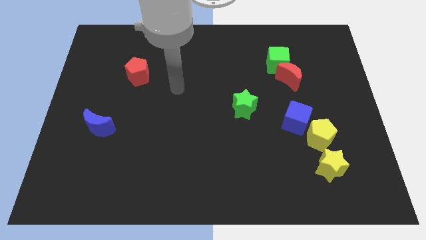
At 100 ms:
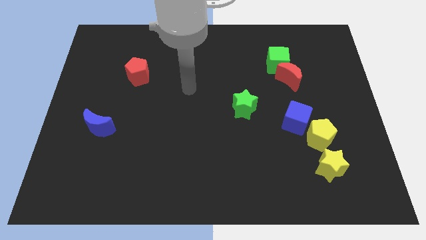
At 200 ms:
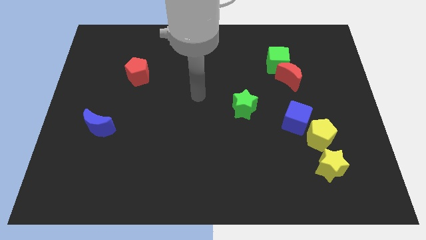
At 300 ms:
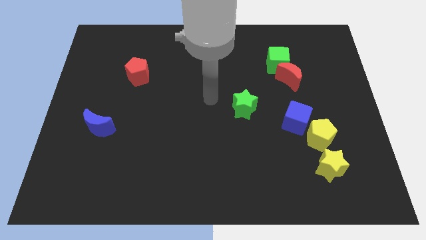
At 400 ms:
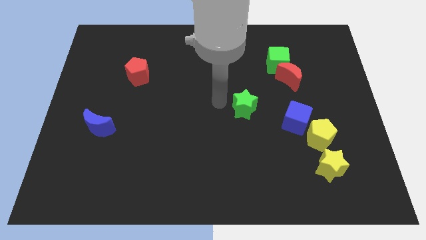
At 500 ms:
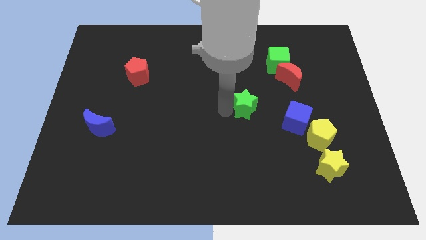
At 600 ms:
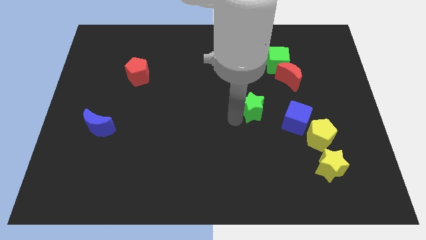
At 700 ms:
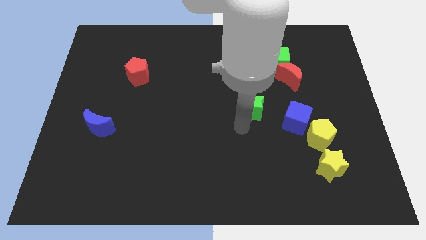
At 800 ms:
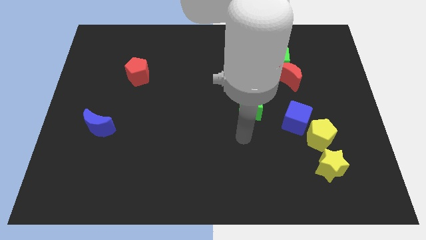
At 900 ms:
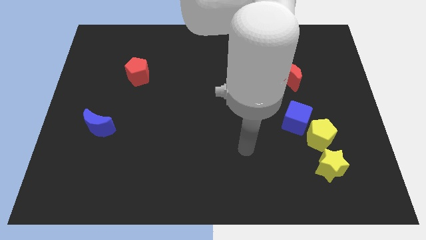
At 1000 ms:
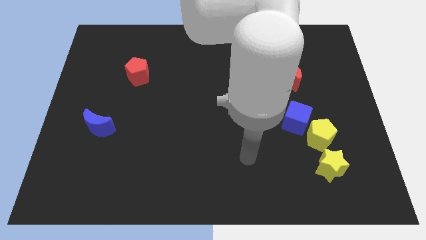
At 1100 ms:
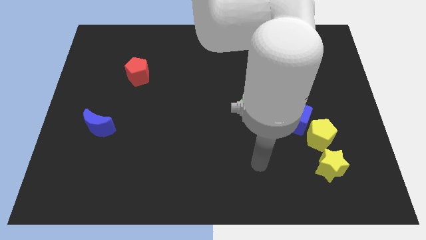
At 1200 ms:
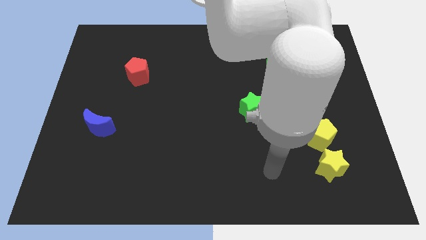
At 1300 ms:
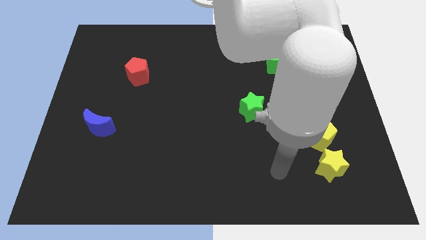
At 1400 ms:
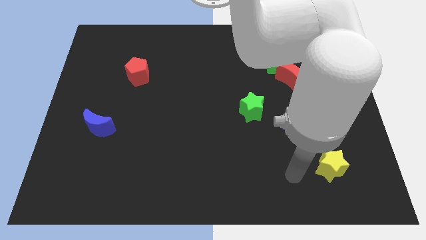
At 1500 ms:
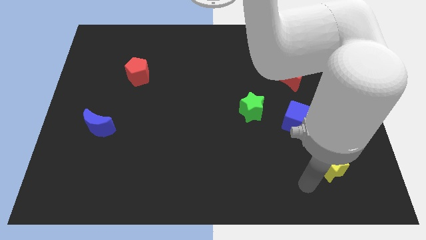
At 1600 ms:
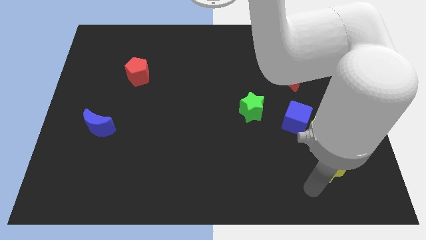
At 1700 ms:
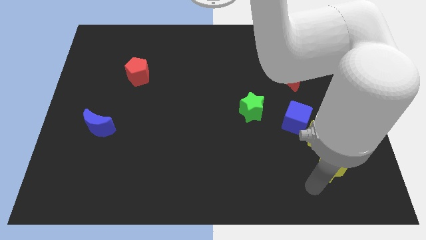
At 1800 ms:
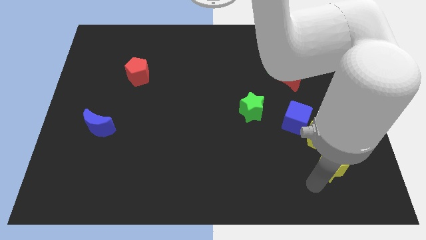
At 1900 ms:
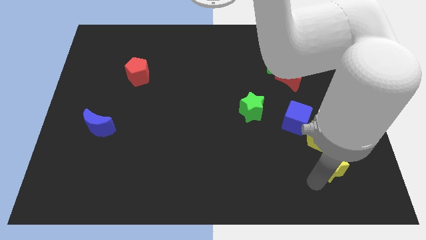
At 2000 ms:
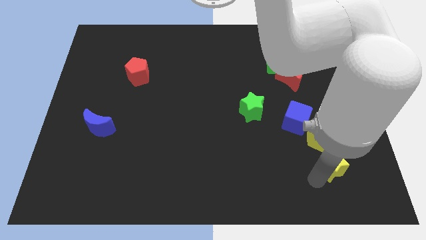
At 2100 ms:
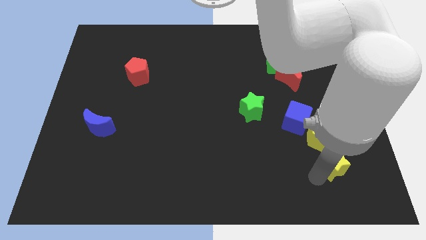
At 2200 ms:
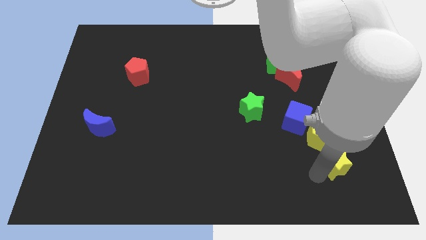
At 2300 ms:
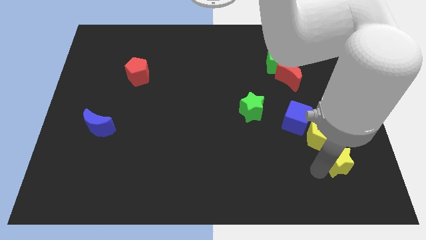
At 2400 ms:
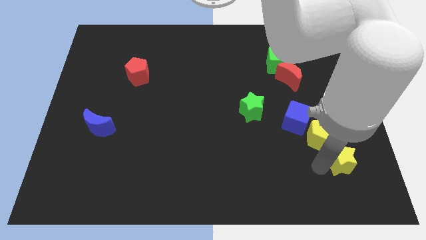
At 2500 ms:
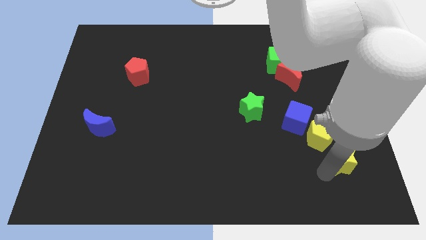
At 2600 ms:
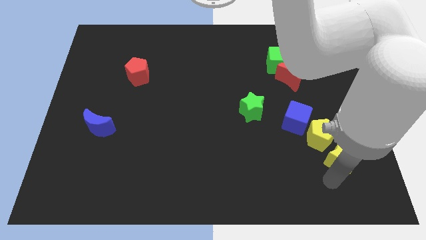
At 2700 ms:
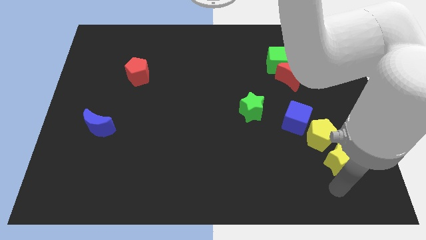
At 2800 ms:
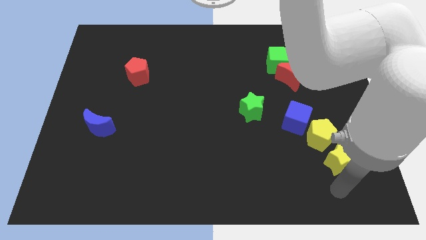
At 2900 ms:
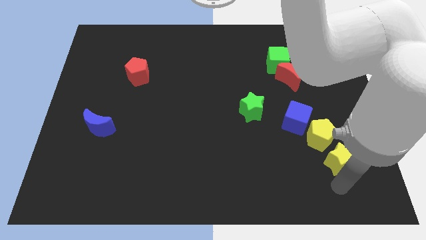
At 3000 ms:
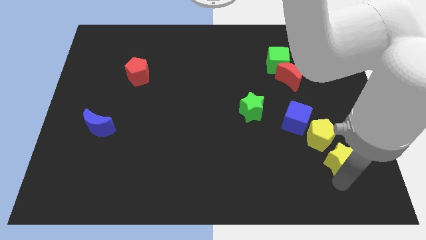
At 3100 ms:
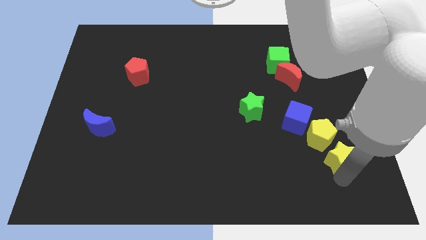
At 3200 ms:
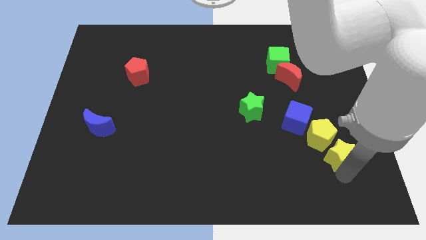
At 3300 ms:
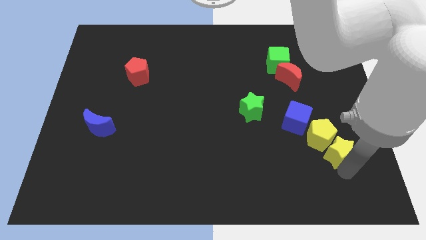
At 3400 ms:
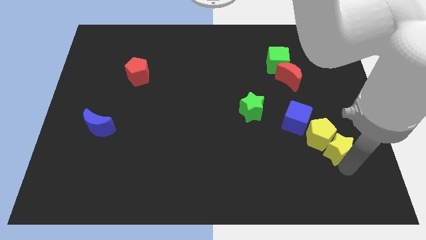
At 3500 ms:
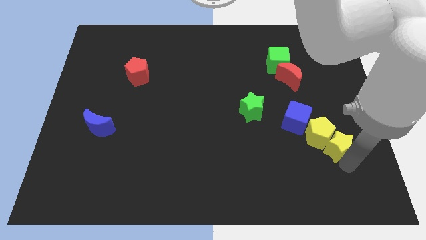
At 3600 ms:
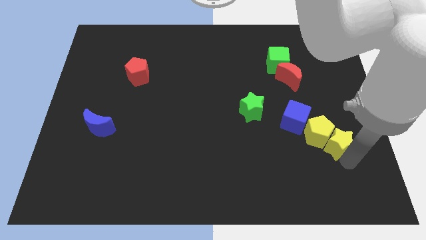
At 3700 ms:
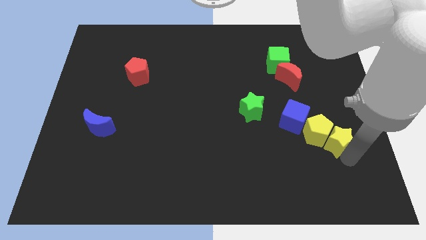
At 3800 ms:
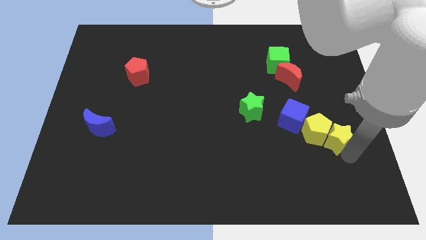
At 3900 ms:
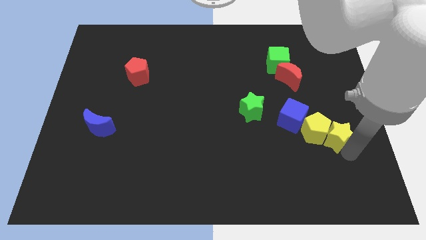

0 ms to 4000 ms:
slightly push the yellow star upwards

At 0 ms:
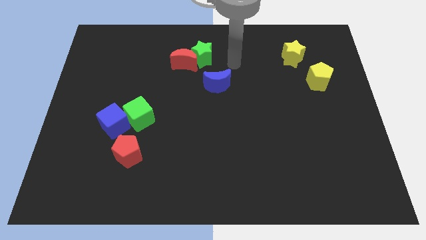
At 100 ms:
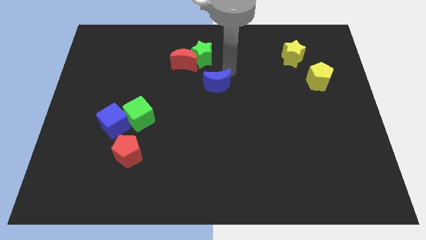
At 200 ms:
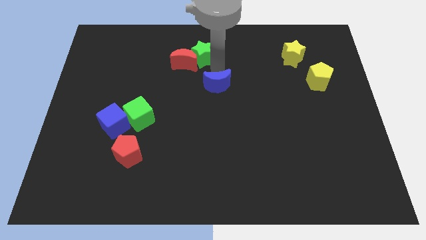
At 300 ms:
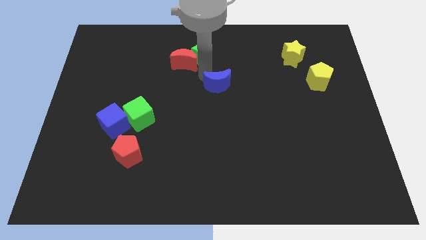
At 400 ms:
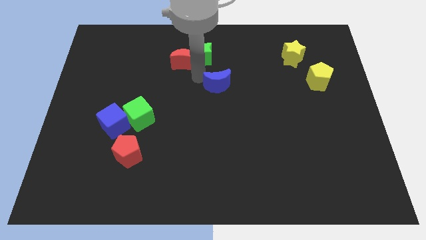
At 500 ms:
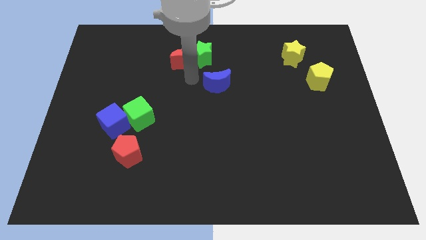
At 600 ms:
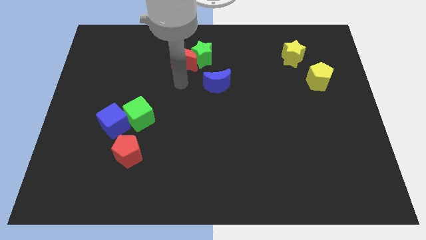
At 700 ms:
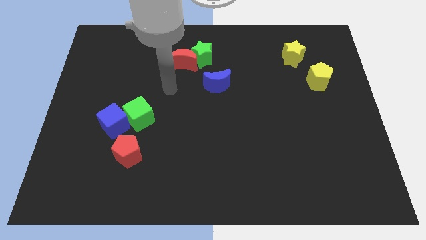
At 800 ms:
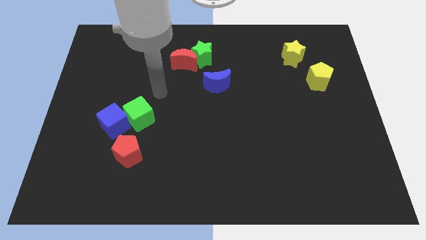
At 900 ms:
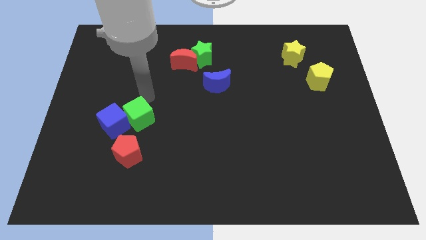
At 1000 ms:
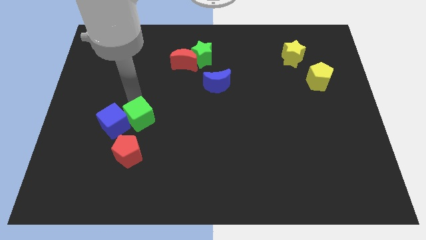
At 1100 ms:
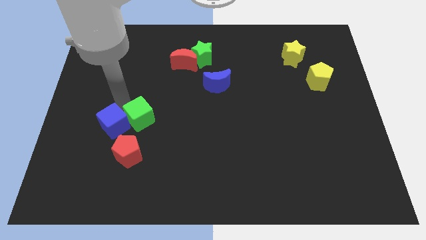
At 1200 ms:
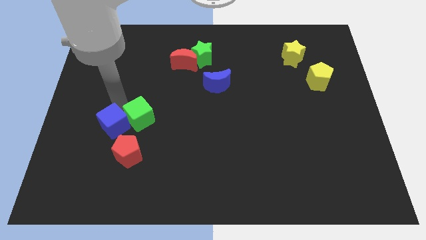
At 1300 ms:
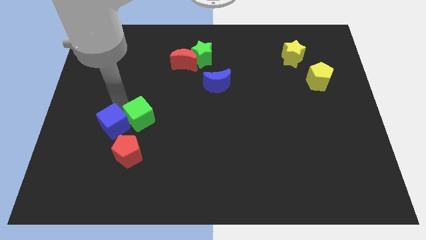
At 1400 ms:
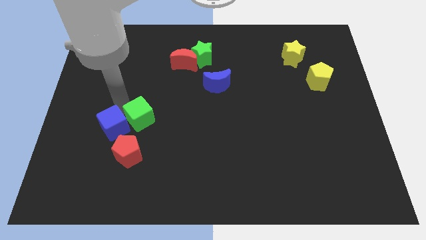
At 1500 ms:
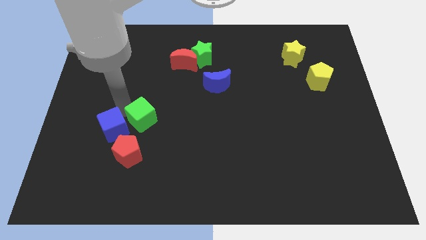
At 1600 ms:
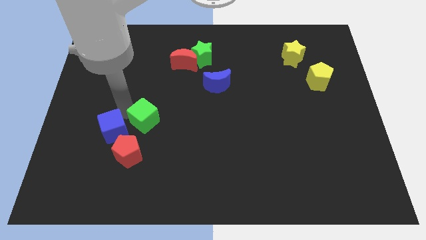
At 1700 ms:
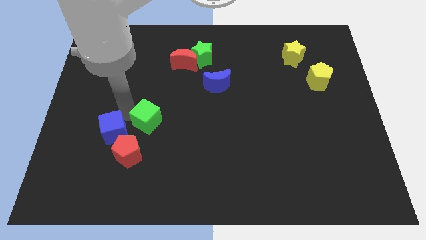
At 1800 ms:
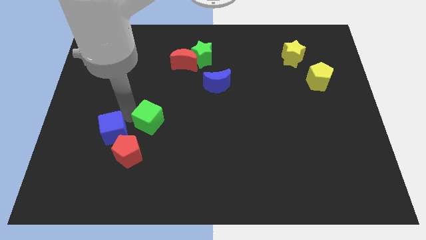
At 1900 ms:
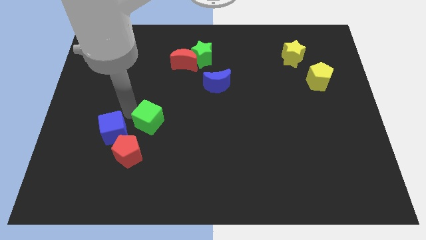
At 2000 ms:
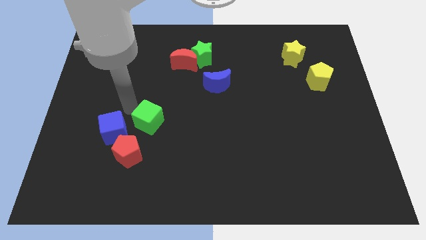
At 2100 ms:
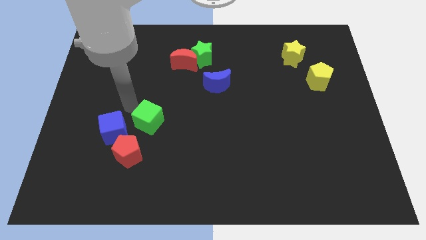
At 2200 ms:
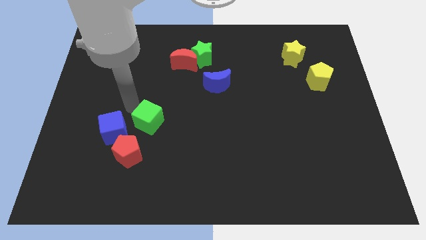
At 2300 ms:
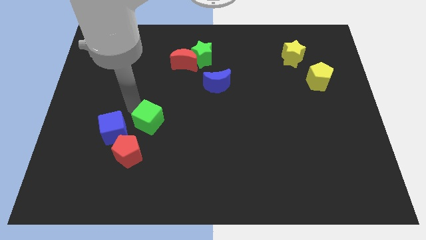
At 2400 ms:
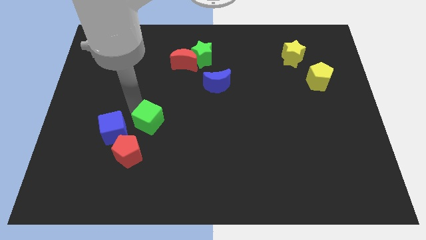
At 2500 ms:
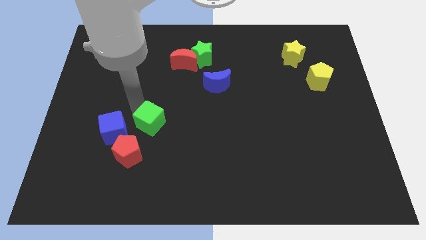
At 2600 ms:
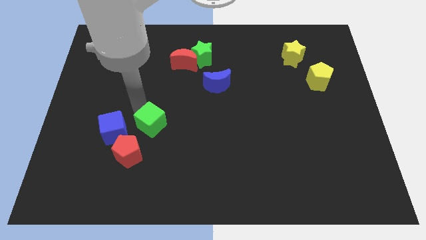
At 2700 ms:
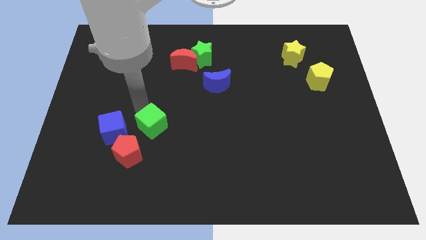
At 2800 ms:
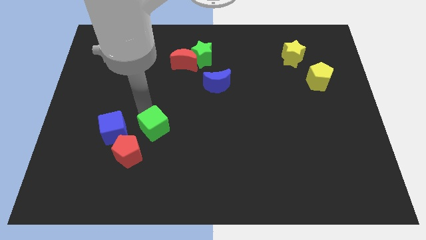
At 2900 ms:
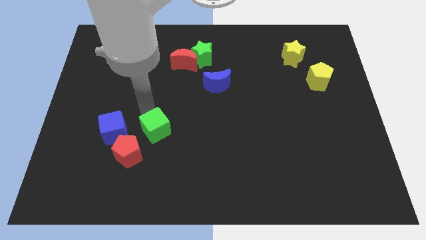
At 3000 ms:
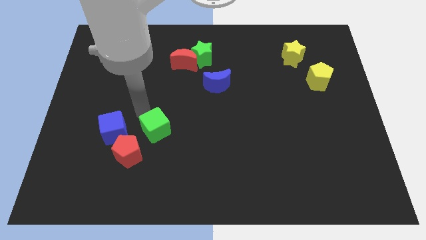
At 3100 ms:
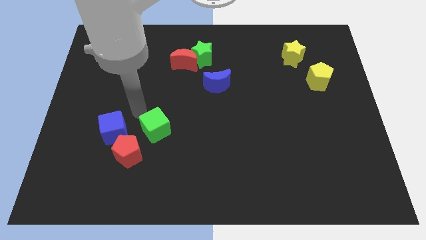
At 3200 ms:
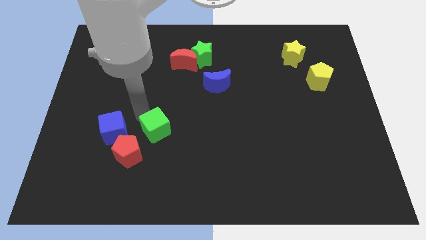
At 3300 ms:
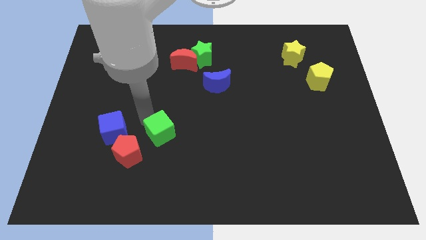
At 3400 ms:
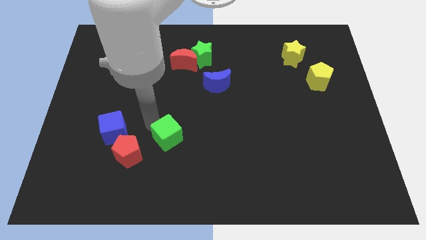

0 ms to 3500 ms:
slightly move the green cube down and then right

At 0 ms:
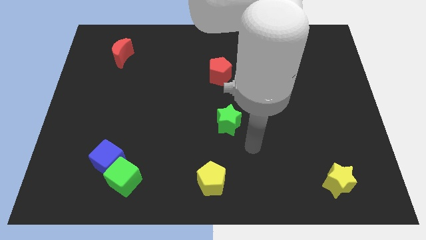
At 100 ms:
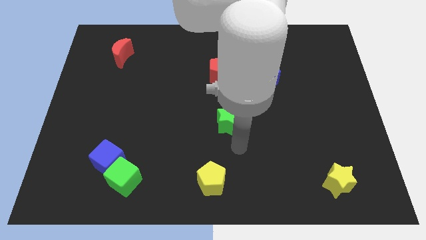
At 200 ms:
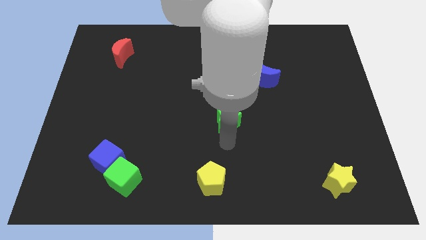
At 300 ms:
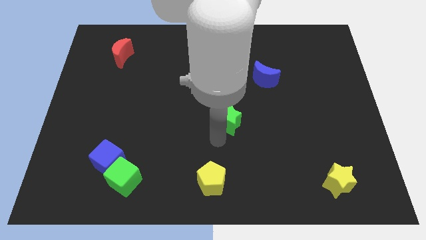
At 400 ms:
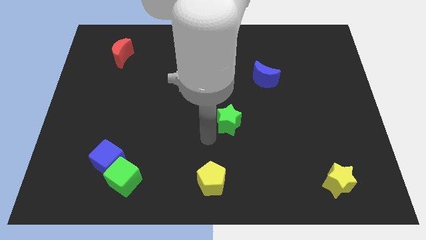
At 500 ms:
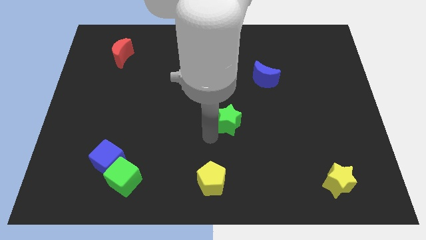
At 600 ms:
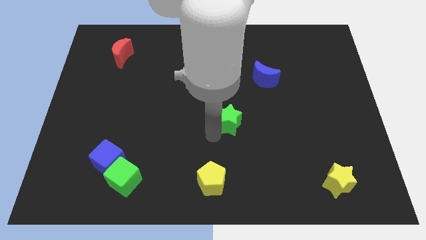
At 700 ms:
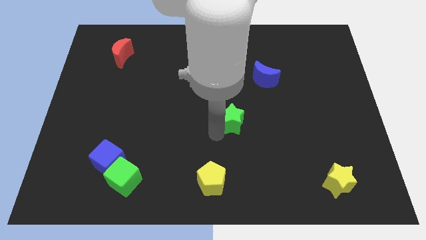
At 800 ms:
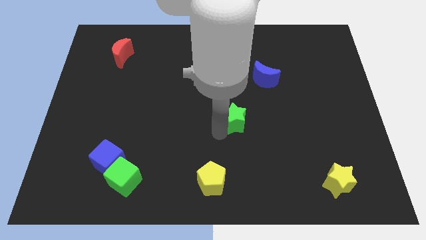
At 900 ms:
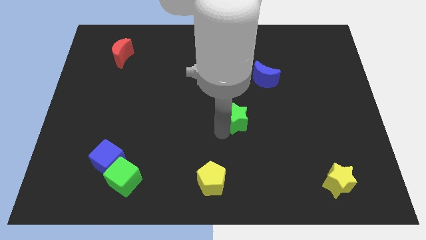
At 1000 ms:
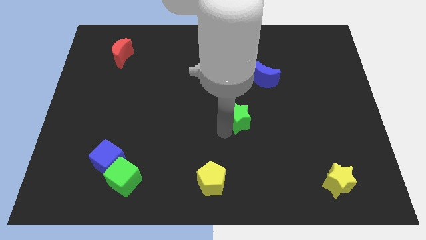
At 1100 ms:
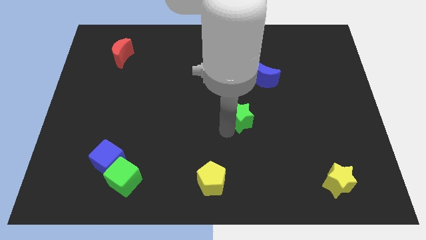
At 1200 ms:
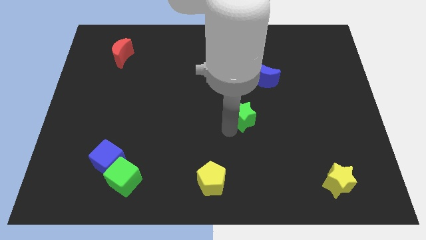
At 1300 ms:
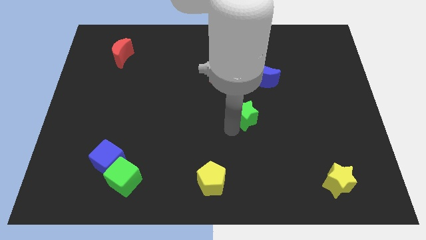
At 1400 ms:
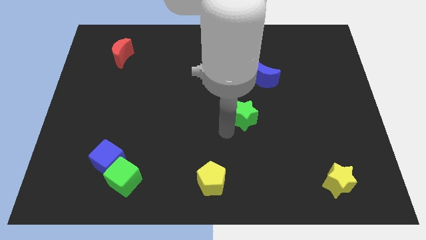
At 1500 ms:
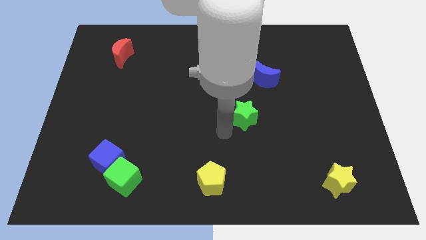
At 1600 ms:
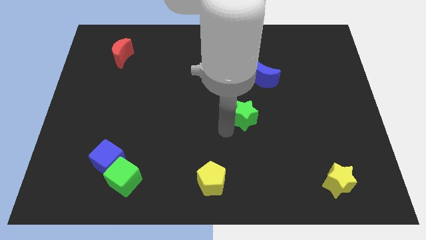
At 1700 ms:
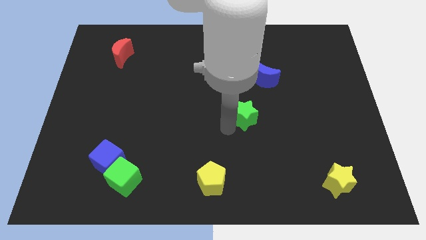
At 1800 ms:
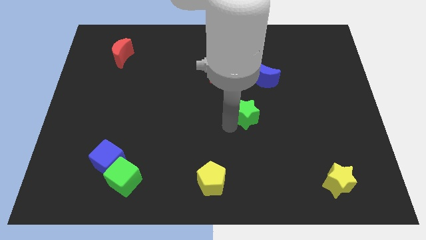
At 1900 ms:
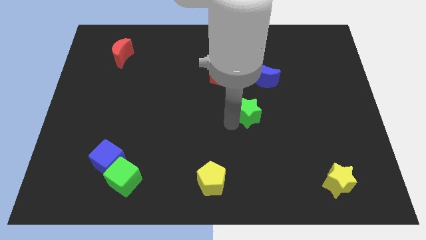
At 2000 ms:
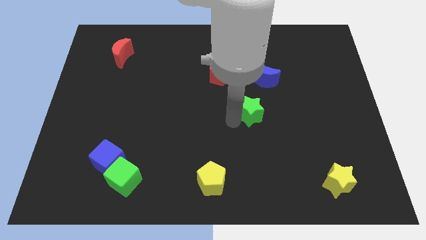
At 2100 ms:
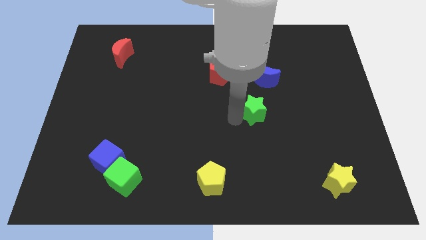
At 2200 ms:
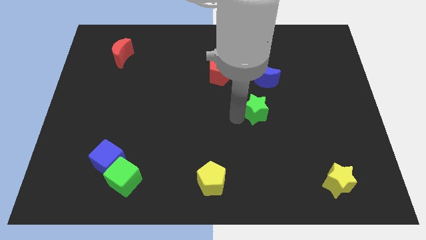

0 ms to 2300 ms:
push the green star slightly upwards and then to the right
